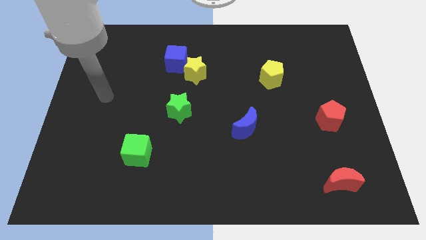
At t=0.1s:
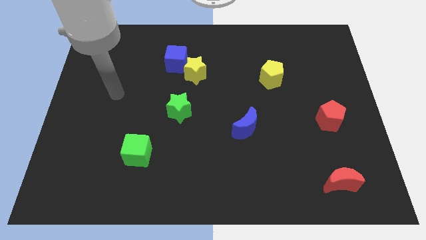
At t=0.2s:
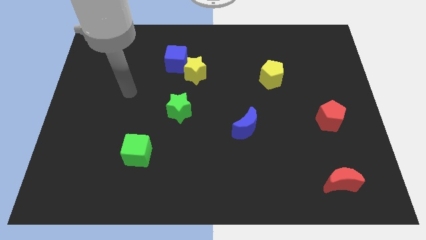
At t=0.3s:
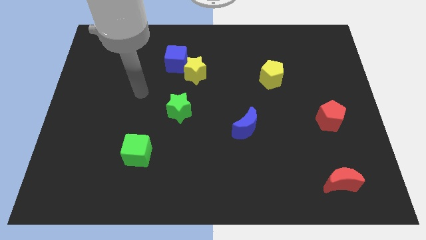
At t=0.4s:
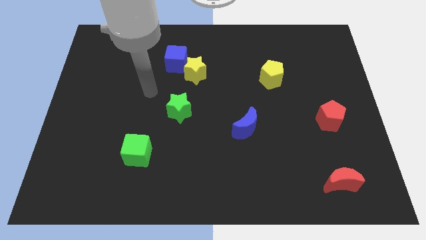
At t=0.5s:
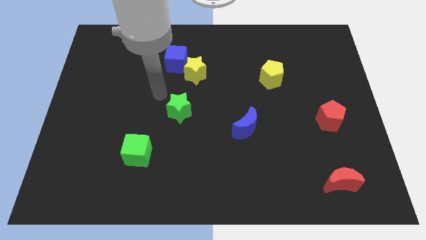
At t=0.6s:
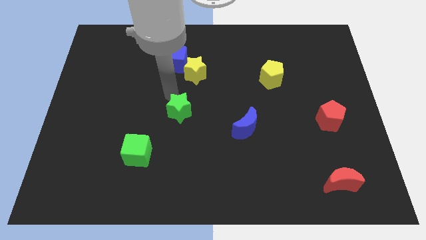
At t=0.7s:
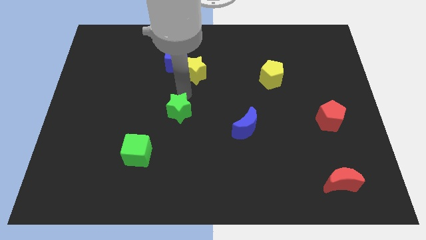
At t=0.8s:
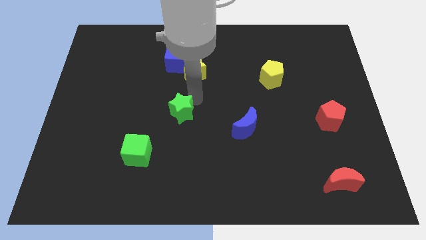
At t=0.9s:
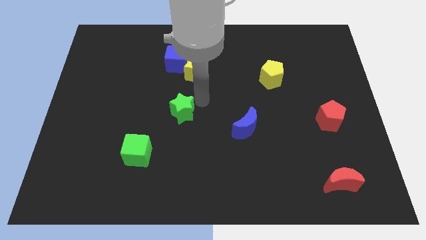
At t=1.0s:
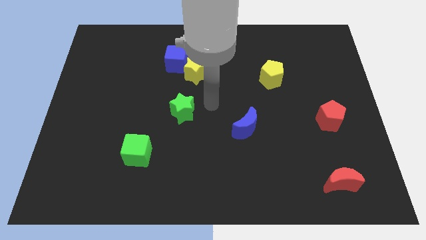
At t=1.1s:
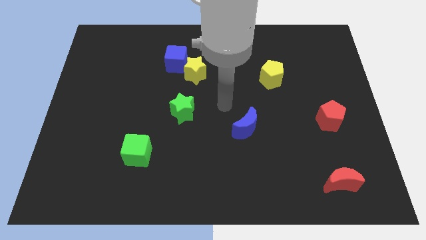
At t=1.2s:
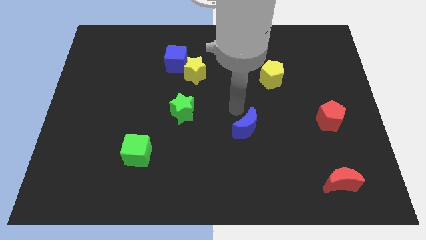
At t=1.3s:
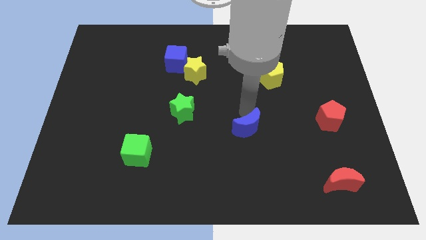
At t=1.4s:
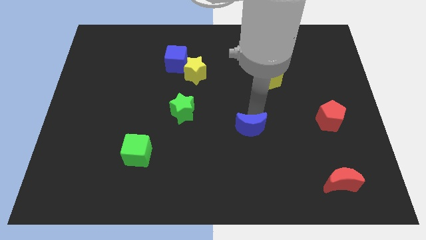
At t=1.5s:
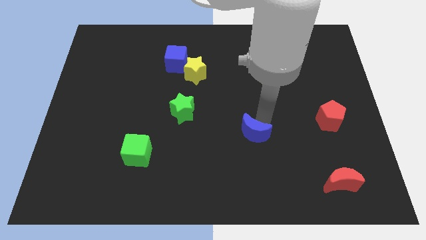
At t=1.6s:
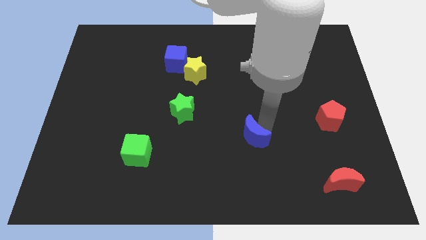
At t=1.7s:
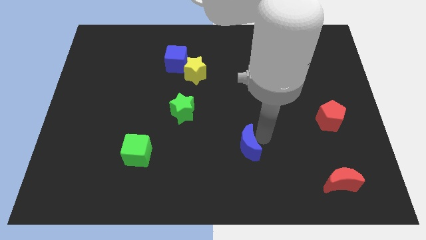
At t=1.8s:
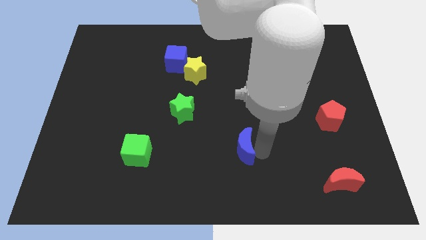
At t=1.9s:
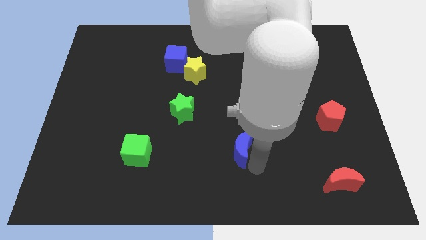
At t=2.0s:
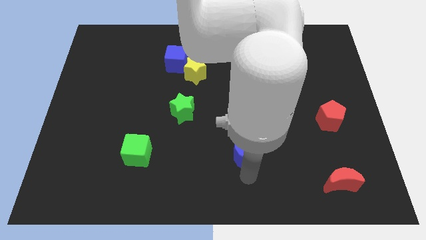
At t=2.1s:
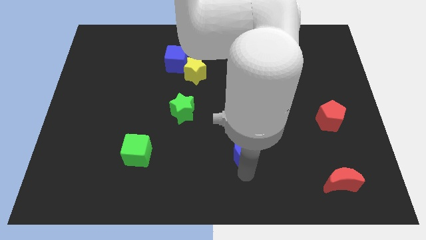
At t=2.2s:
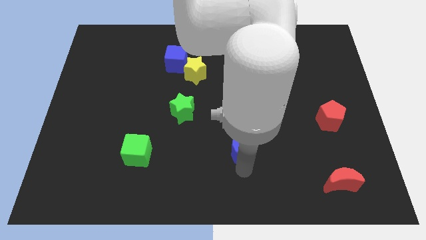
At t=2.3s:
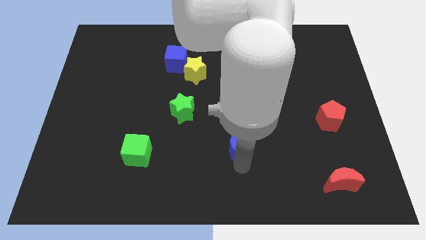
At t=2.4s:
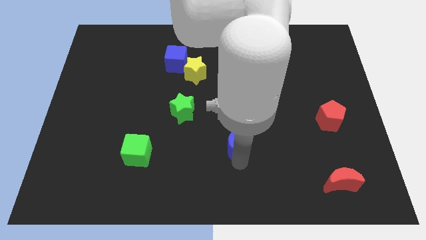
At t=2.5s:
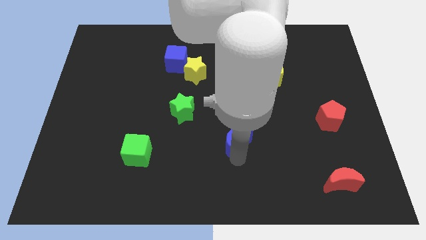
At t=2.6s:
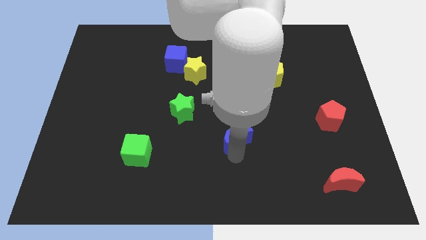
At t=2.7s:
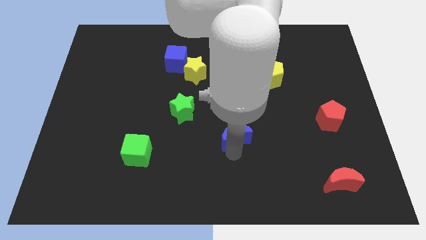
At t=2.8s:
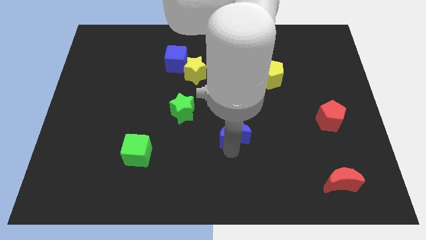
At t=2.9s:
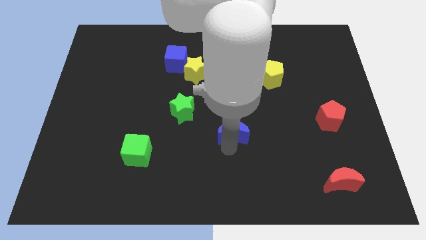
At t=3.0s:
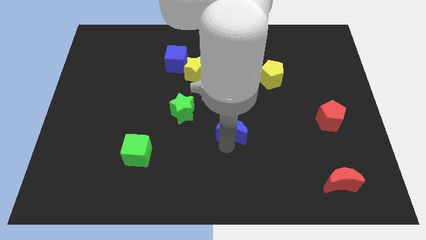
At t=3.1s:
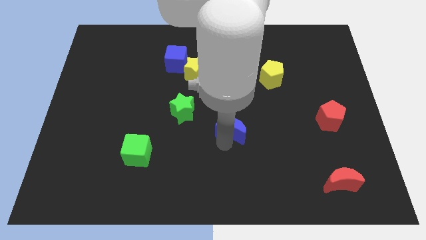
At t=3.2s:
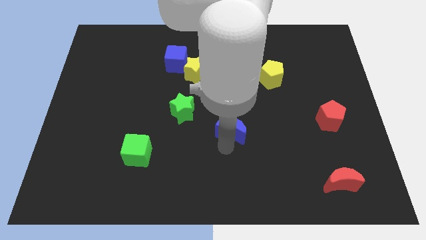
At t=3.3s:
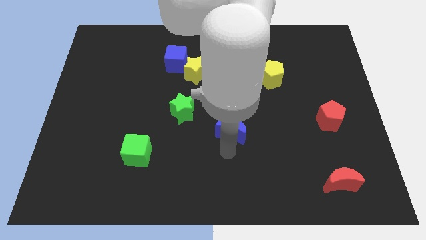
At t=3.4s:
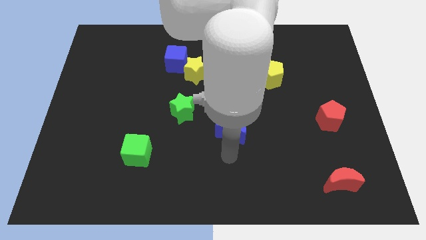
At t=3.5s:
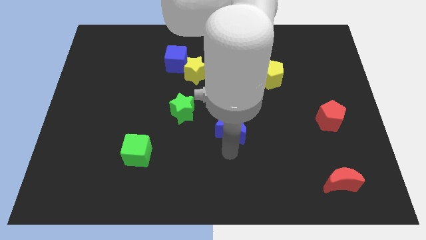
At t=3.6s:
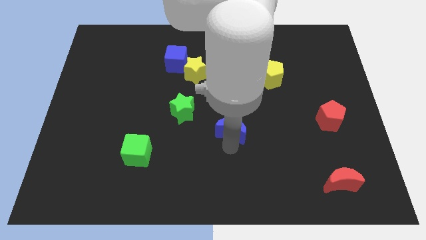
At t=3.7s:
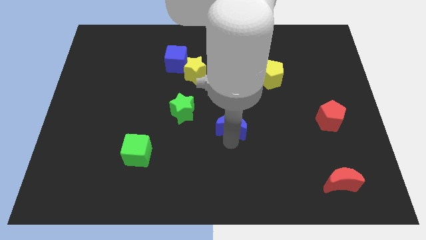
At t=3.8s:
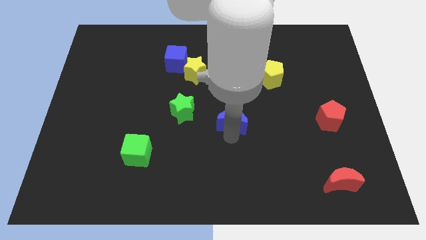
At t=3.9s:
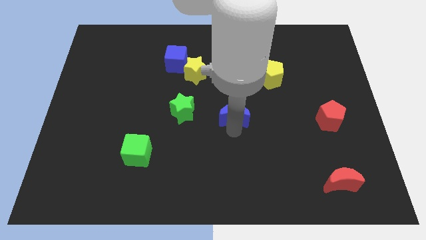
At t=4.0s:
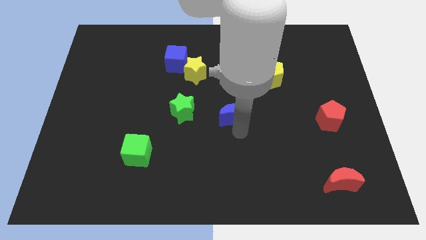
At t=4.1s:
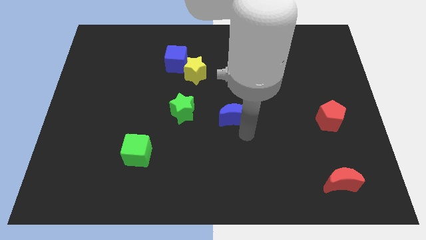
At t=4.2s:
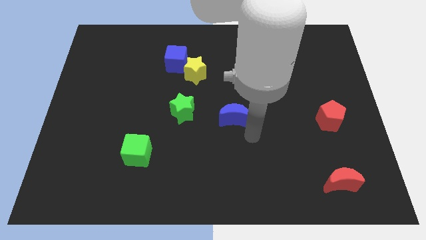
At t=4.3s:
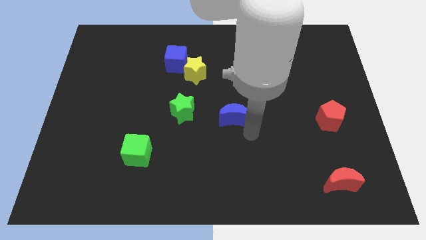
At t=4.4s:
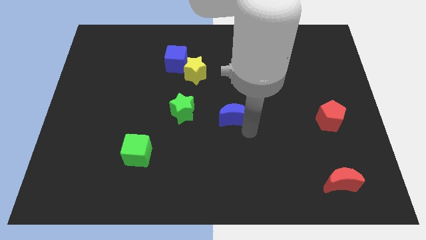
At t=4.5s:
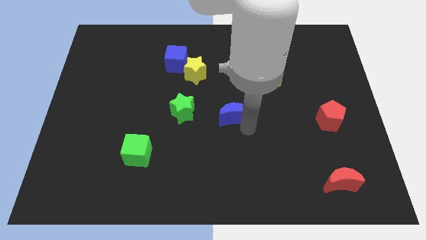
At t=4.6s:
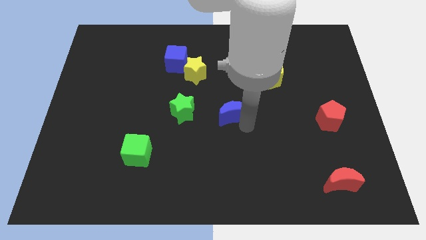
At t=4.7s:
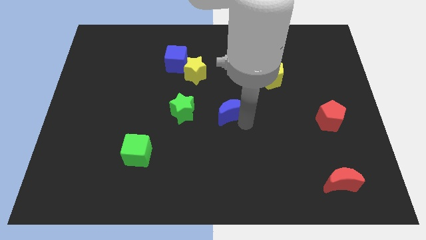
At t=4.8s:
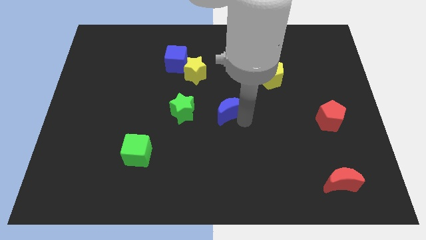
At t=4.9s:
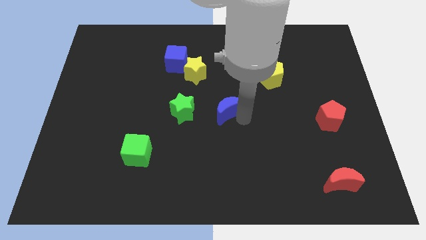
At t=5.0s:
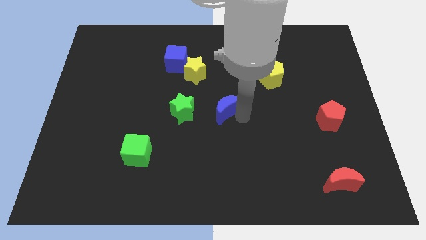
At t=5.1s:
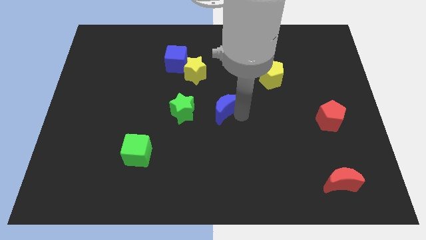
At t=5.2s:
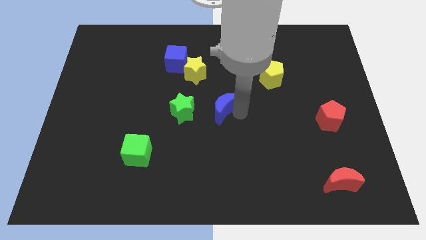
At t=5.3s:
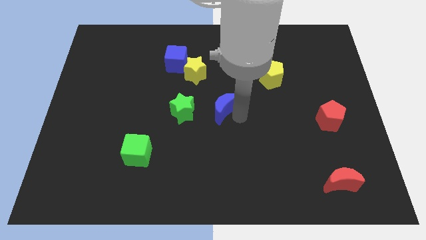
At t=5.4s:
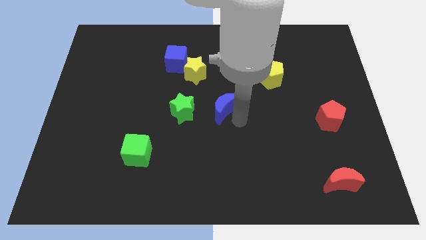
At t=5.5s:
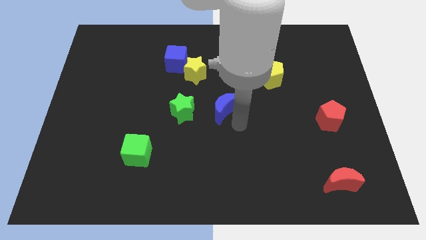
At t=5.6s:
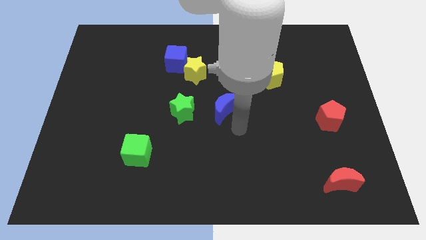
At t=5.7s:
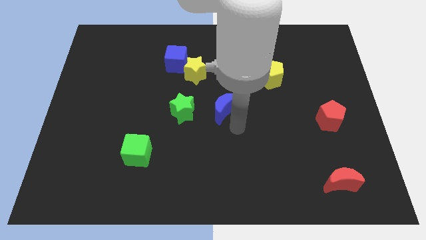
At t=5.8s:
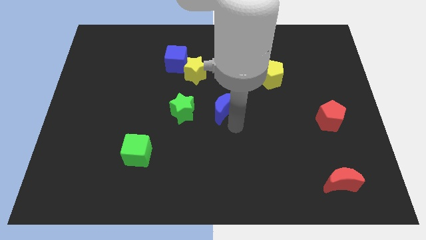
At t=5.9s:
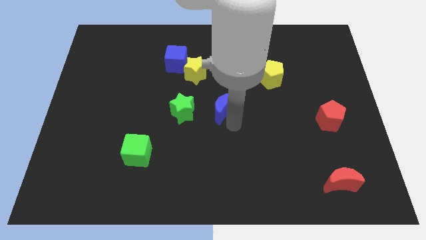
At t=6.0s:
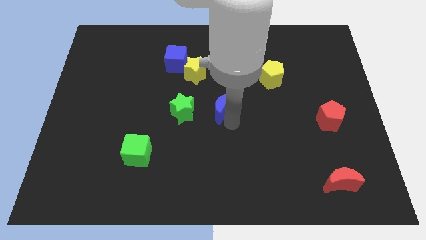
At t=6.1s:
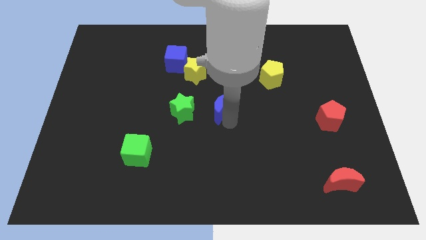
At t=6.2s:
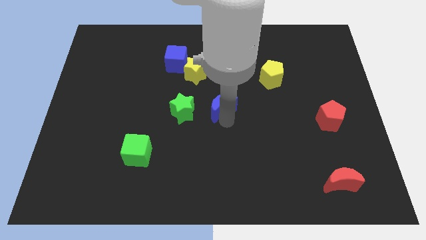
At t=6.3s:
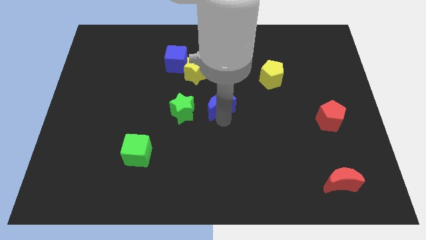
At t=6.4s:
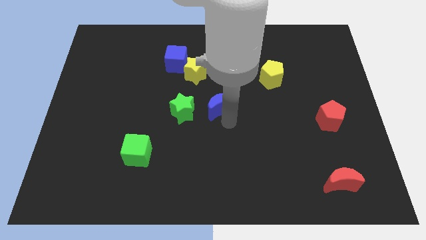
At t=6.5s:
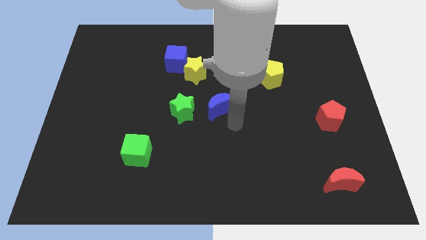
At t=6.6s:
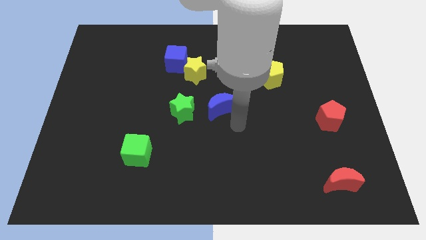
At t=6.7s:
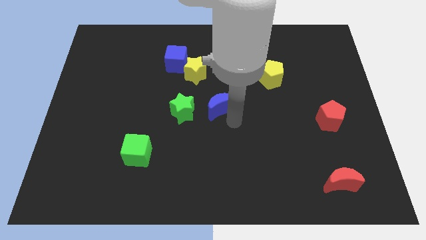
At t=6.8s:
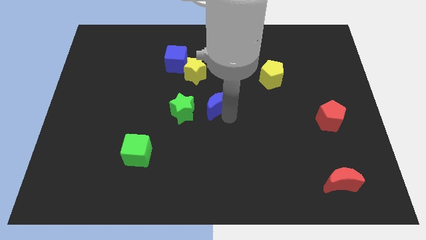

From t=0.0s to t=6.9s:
slide the blue moon to the top right of the green star

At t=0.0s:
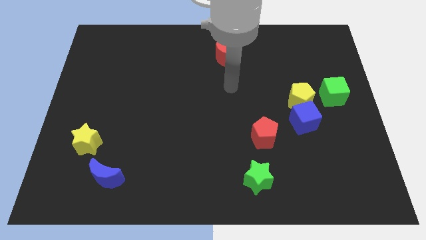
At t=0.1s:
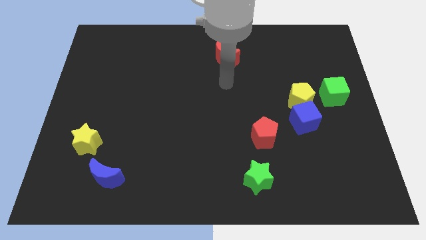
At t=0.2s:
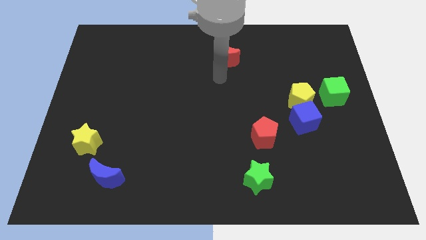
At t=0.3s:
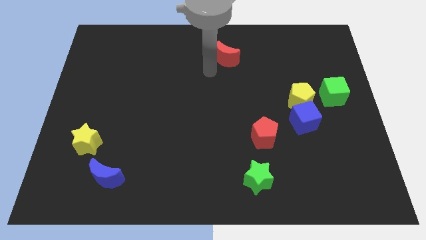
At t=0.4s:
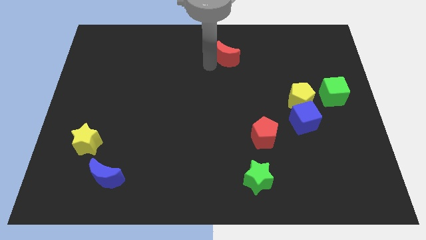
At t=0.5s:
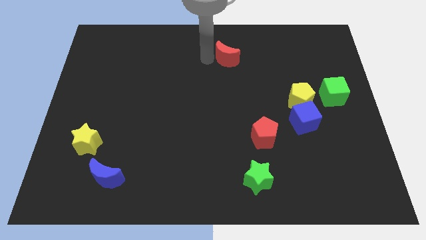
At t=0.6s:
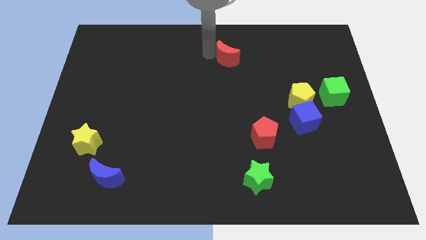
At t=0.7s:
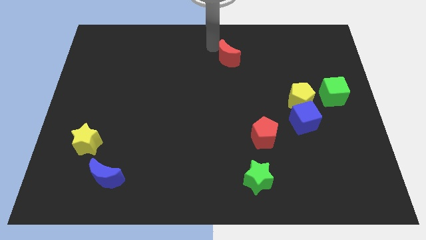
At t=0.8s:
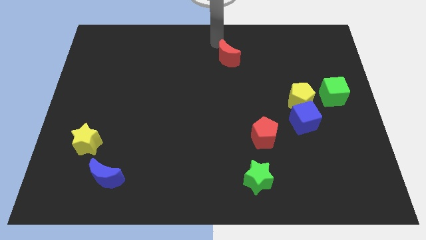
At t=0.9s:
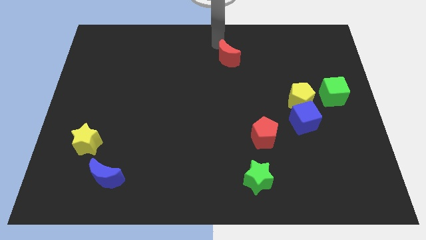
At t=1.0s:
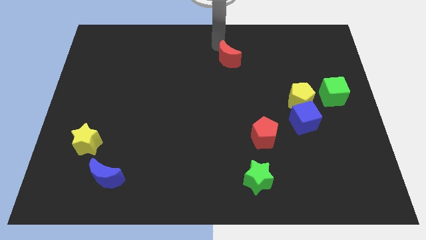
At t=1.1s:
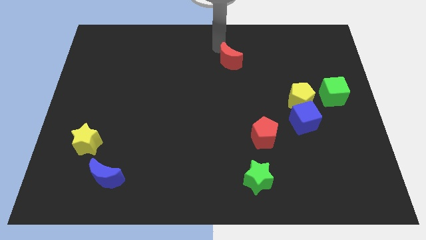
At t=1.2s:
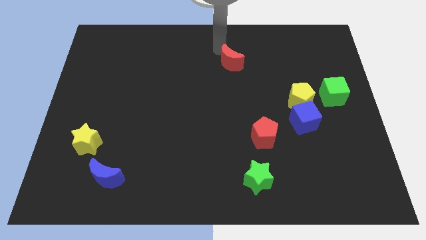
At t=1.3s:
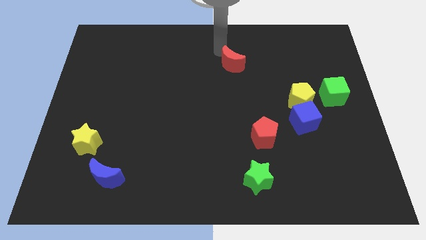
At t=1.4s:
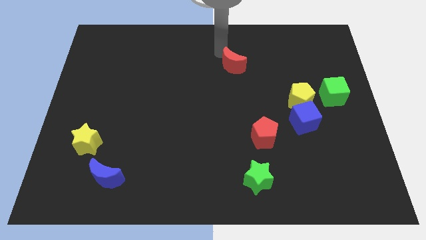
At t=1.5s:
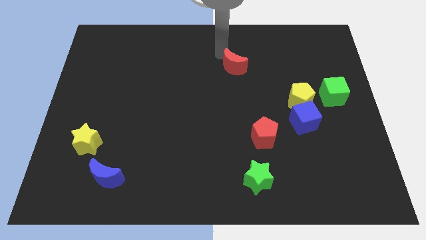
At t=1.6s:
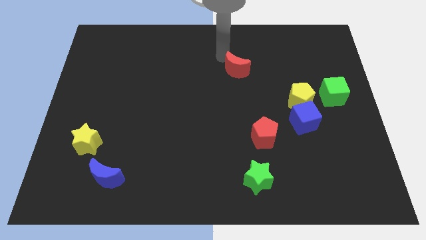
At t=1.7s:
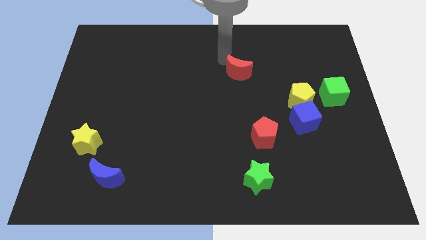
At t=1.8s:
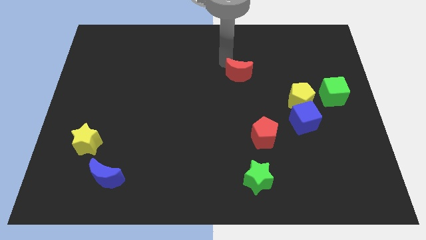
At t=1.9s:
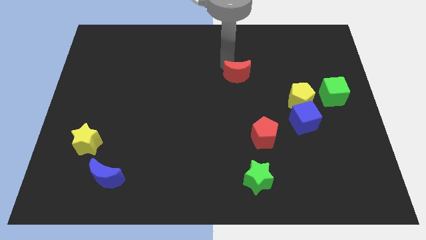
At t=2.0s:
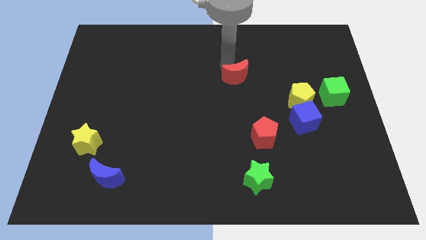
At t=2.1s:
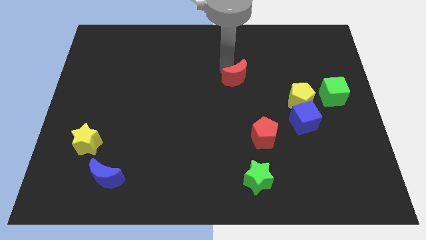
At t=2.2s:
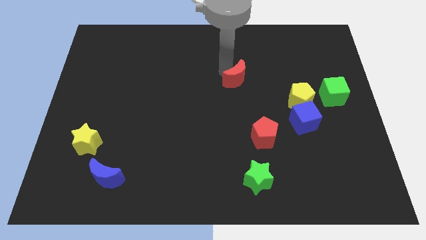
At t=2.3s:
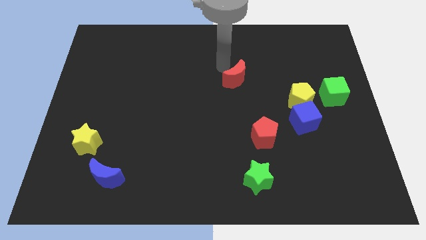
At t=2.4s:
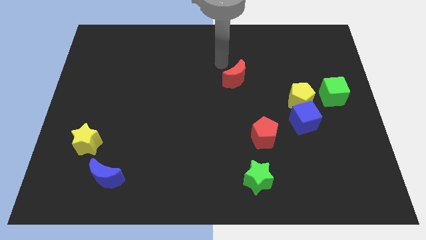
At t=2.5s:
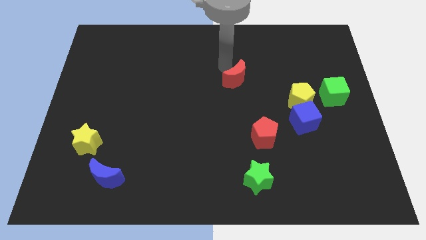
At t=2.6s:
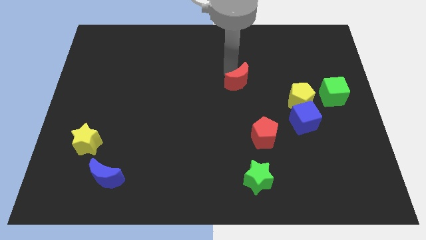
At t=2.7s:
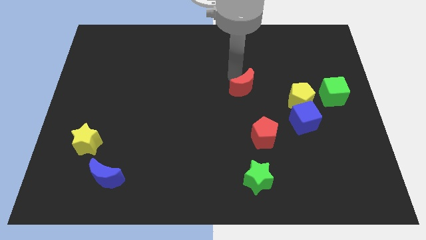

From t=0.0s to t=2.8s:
move the red moon just left of the yellow pentagon
